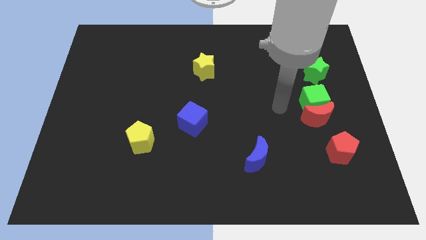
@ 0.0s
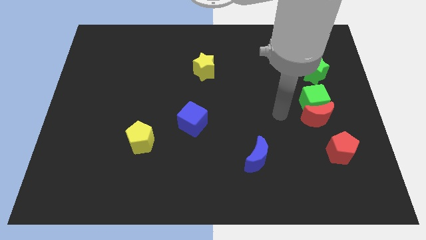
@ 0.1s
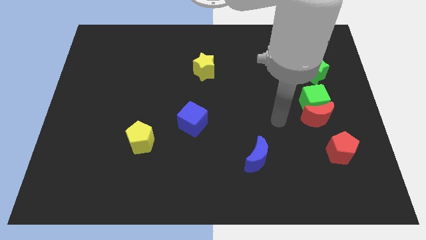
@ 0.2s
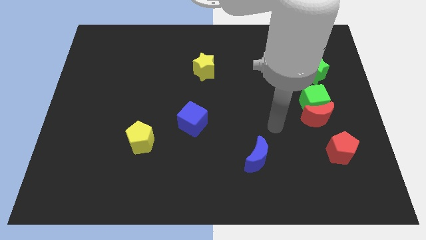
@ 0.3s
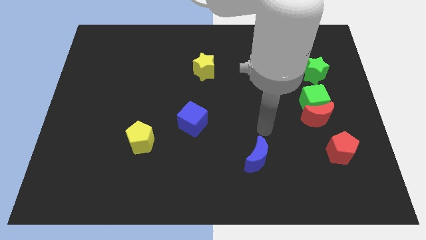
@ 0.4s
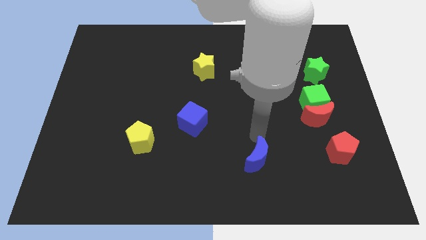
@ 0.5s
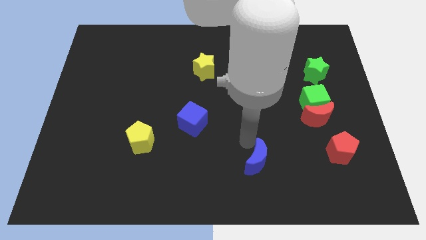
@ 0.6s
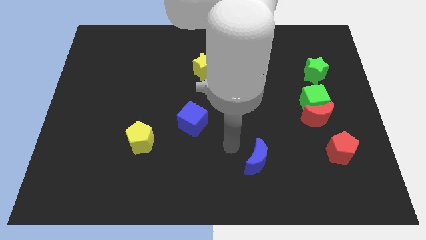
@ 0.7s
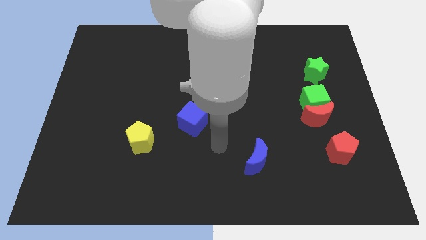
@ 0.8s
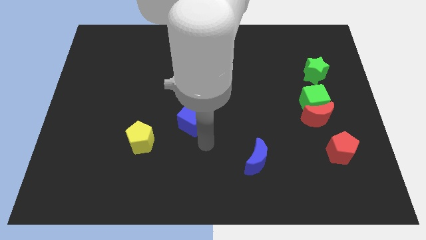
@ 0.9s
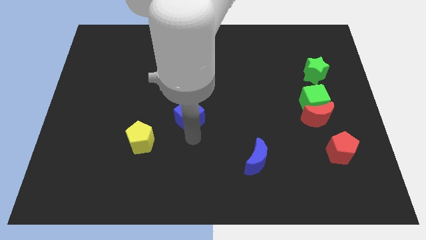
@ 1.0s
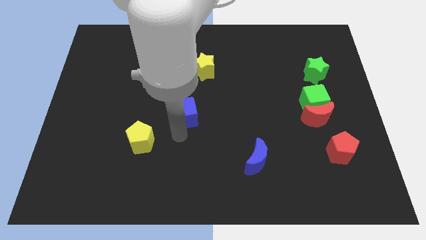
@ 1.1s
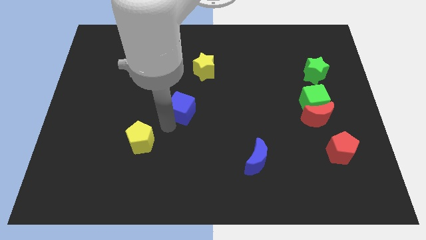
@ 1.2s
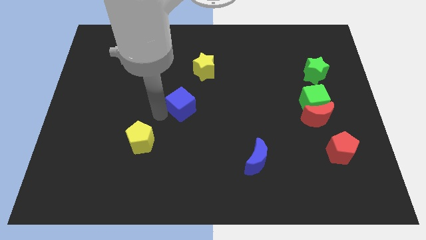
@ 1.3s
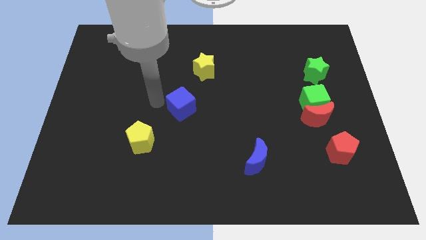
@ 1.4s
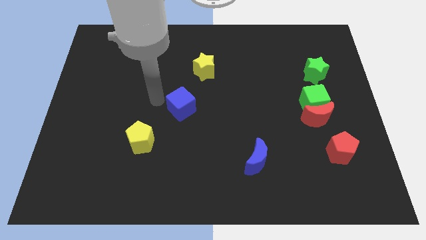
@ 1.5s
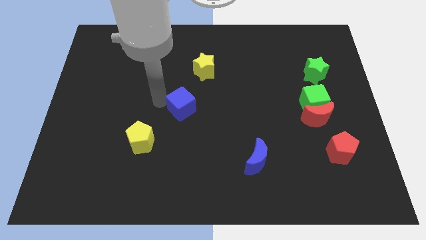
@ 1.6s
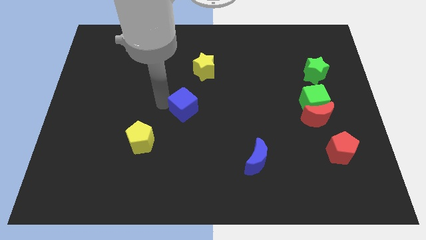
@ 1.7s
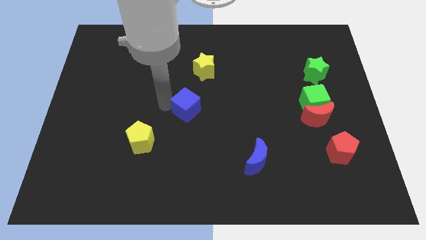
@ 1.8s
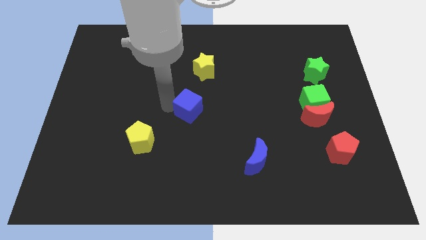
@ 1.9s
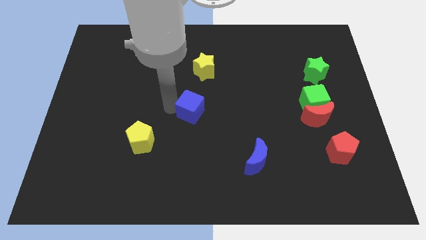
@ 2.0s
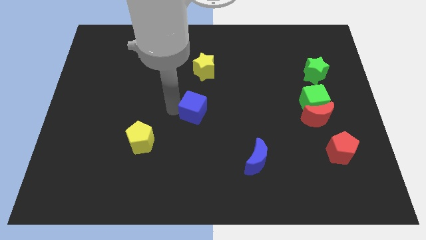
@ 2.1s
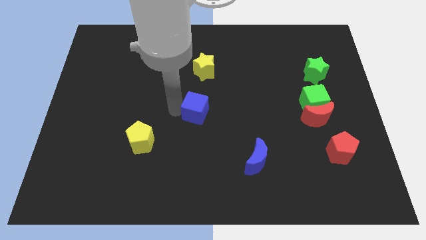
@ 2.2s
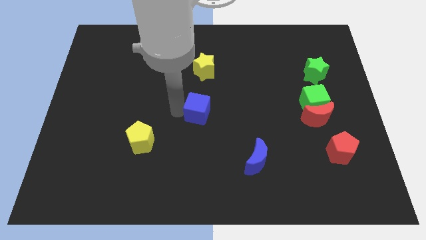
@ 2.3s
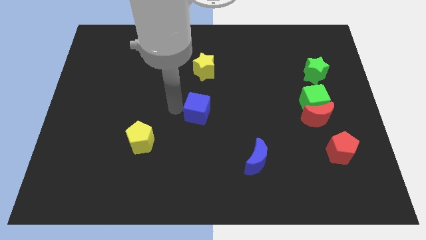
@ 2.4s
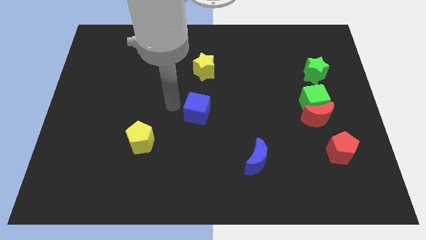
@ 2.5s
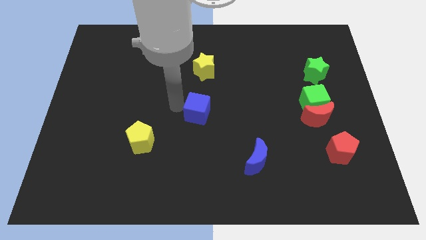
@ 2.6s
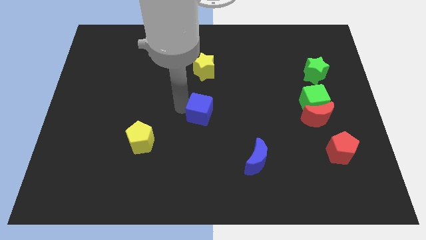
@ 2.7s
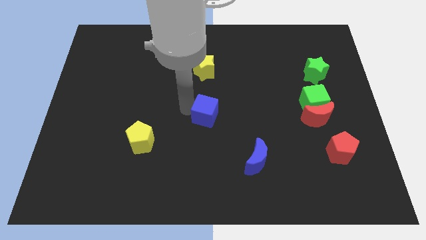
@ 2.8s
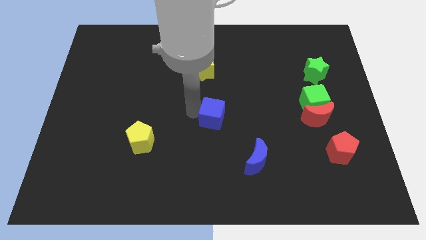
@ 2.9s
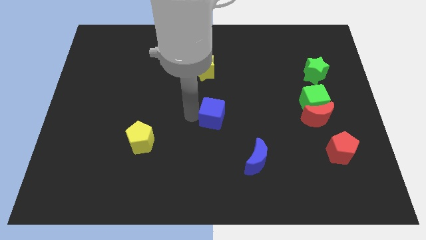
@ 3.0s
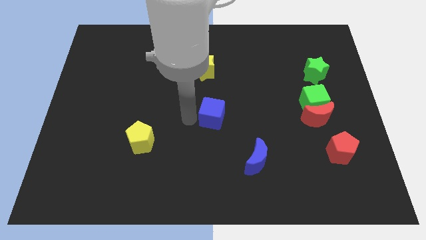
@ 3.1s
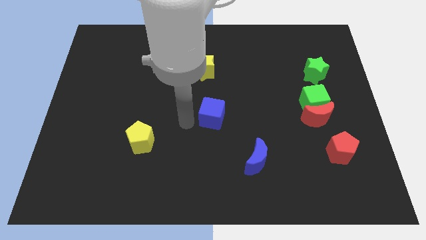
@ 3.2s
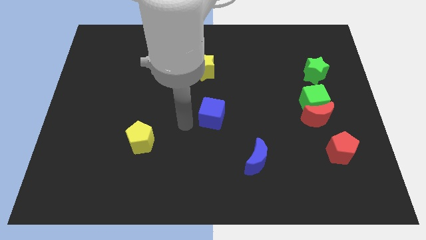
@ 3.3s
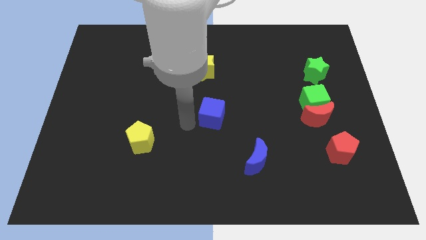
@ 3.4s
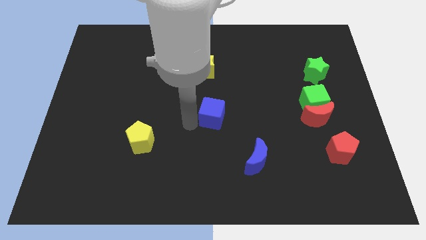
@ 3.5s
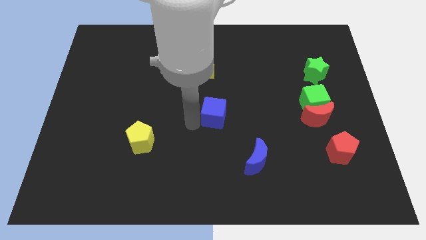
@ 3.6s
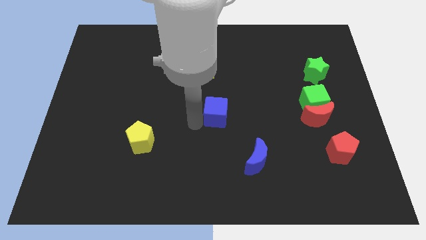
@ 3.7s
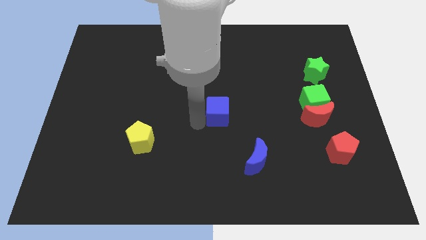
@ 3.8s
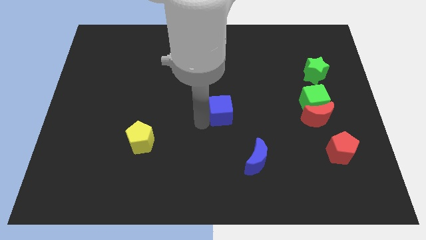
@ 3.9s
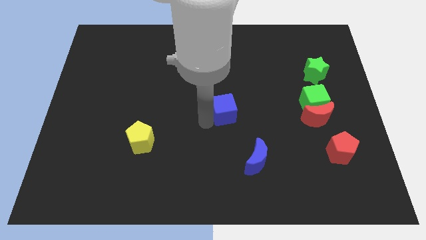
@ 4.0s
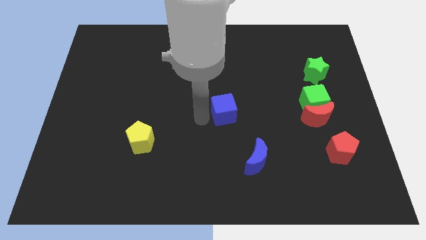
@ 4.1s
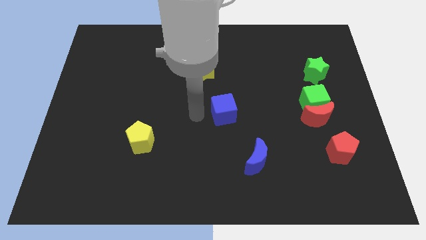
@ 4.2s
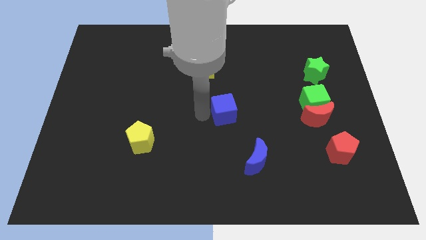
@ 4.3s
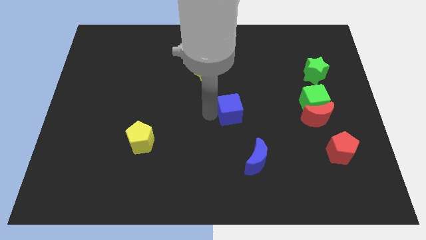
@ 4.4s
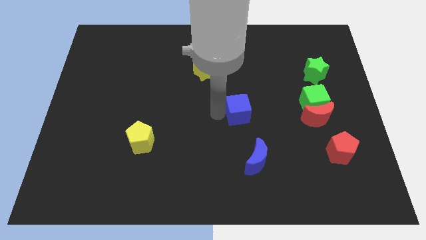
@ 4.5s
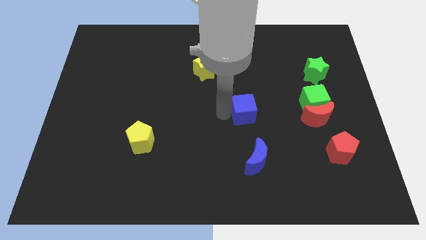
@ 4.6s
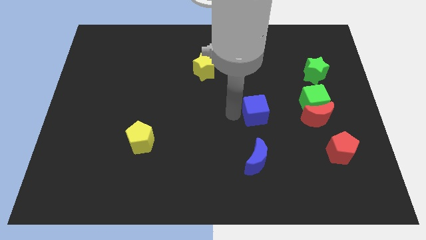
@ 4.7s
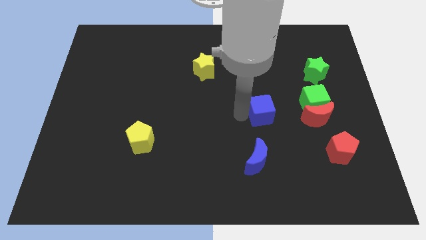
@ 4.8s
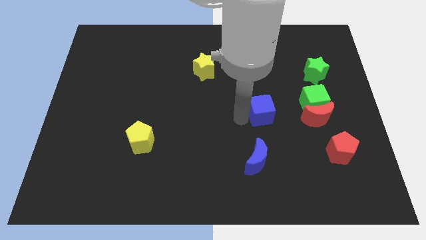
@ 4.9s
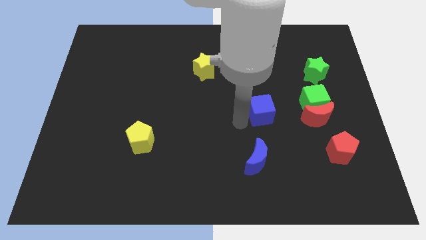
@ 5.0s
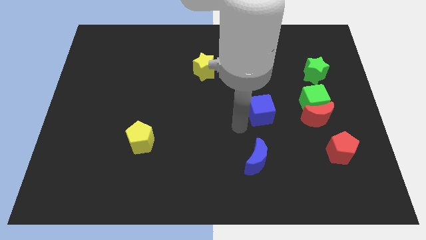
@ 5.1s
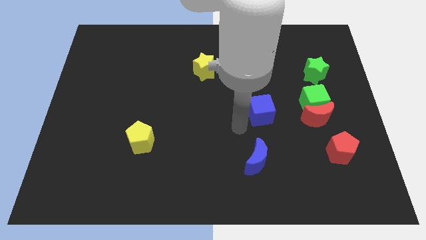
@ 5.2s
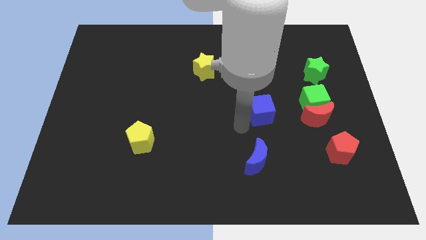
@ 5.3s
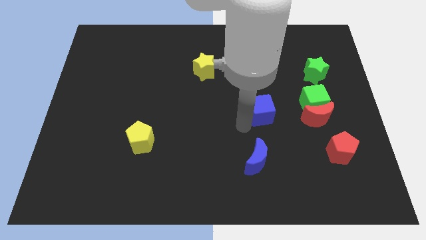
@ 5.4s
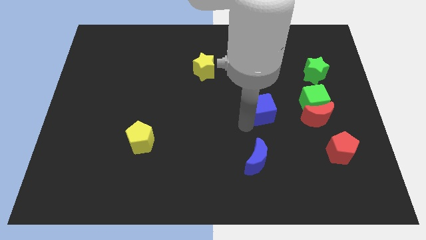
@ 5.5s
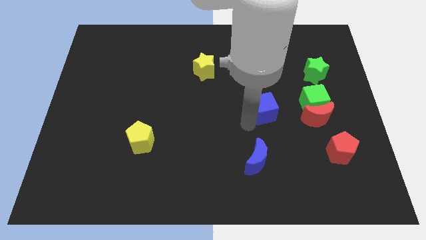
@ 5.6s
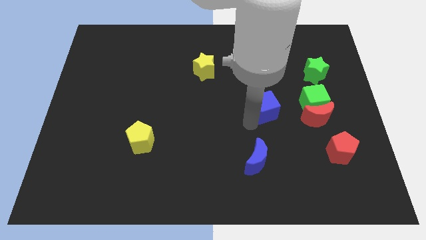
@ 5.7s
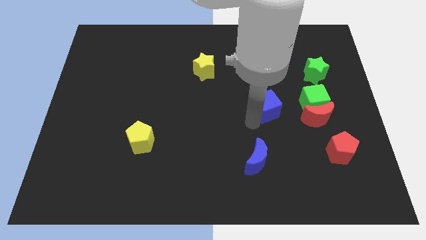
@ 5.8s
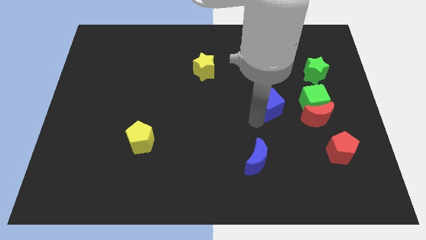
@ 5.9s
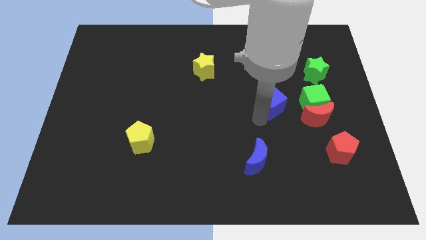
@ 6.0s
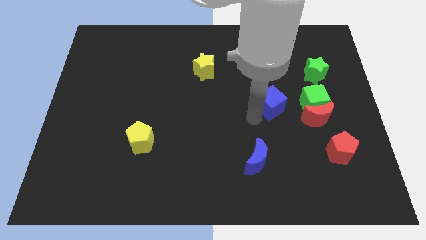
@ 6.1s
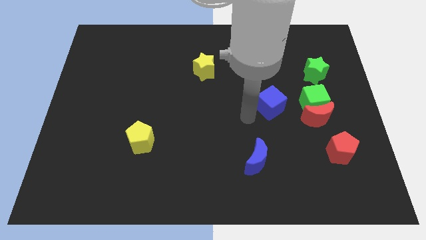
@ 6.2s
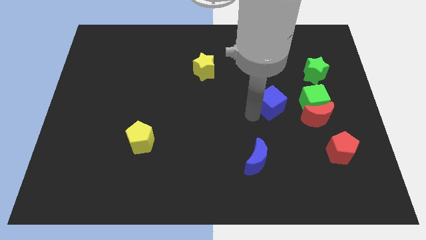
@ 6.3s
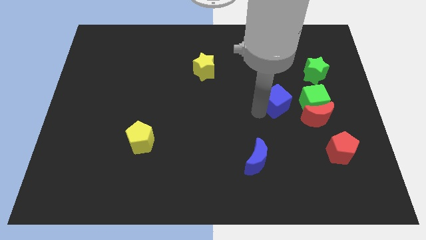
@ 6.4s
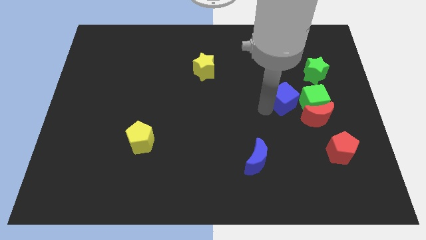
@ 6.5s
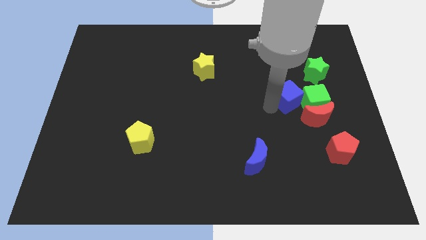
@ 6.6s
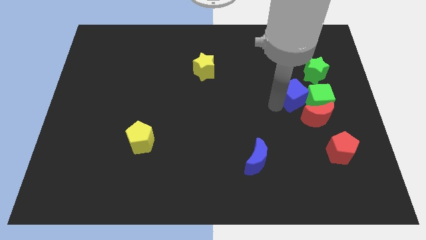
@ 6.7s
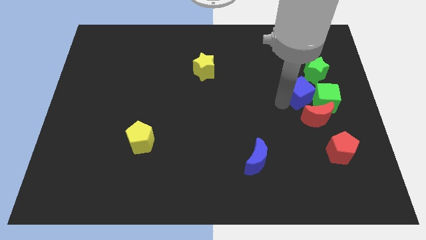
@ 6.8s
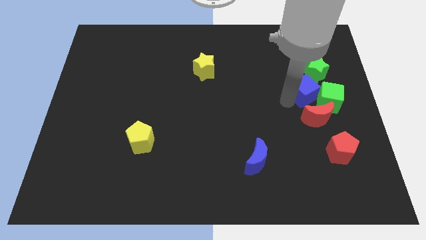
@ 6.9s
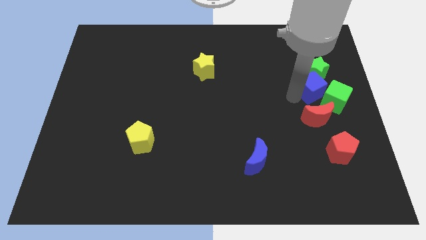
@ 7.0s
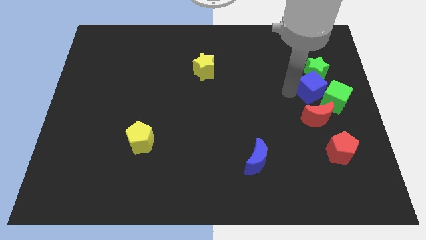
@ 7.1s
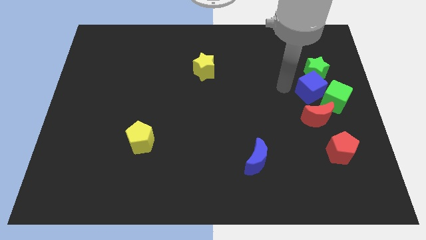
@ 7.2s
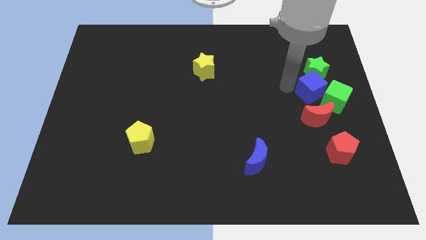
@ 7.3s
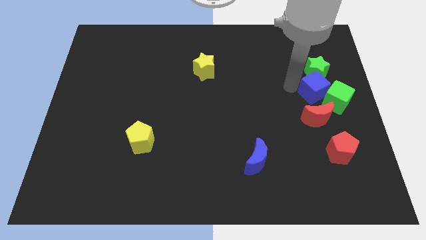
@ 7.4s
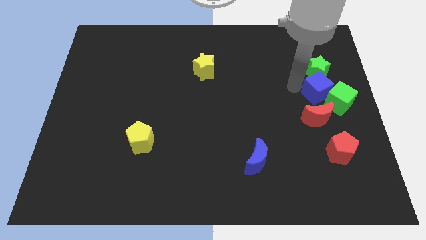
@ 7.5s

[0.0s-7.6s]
push the blue cube to the right side
